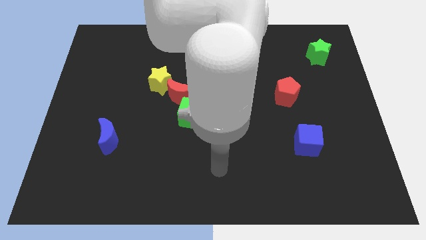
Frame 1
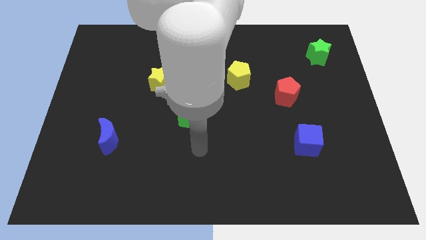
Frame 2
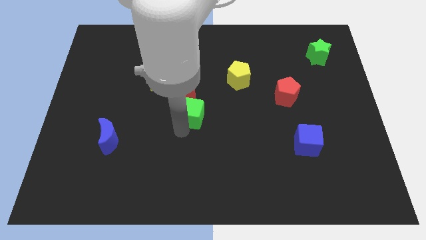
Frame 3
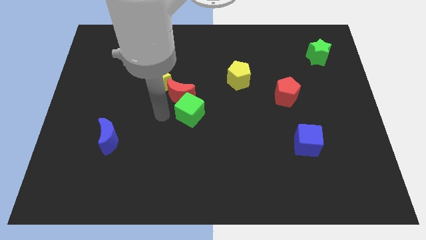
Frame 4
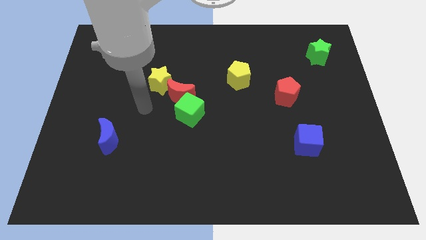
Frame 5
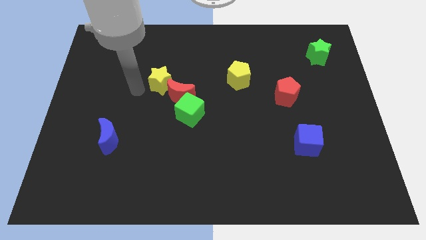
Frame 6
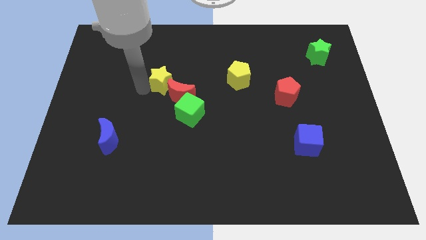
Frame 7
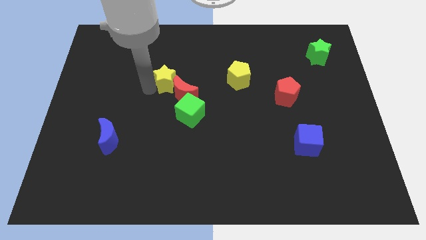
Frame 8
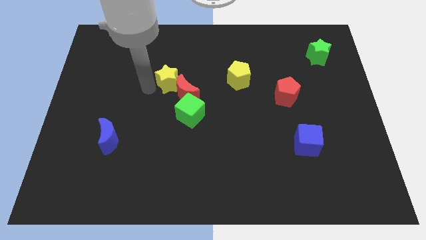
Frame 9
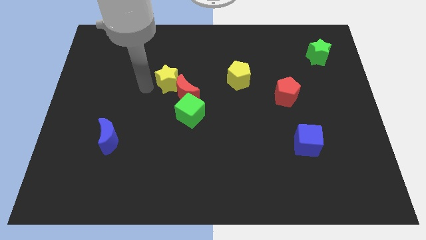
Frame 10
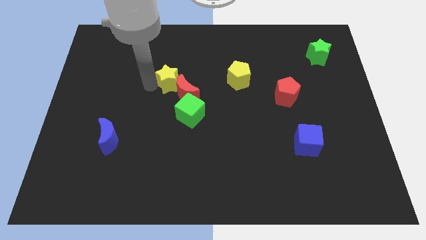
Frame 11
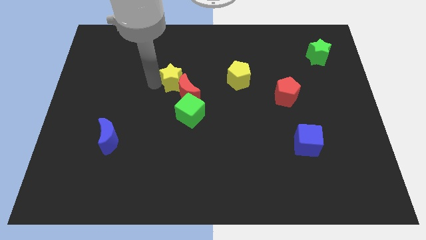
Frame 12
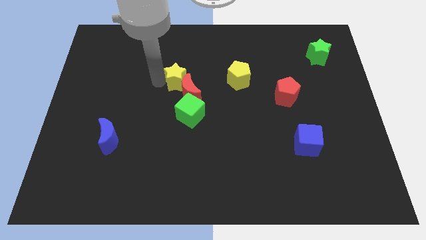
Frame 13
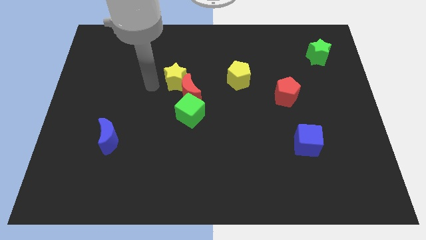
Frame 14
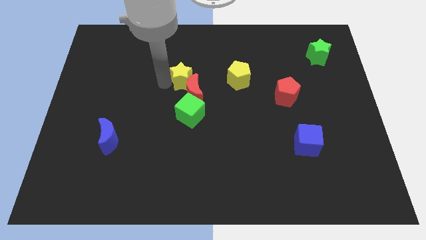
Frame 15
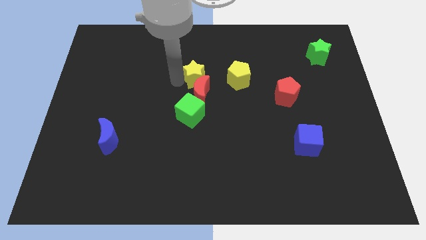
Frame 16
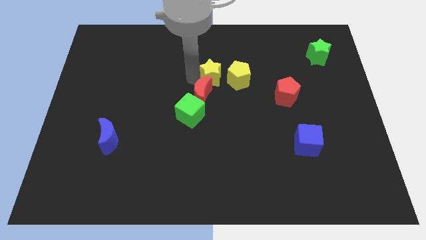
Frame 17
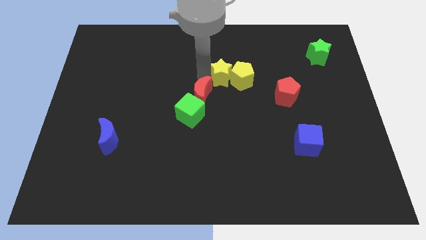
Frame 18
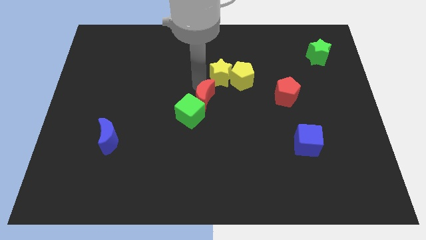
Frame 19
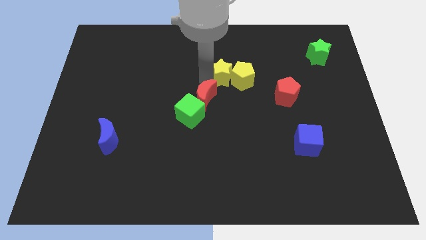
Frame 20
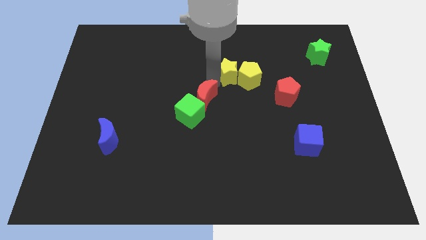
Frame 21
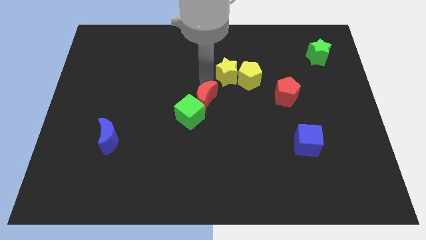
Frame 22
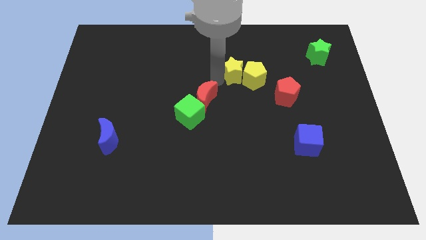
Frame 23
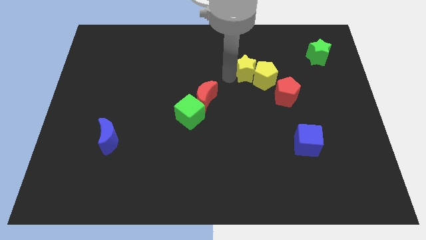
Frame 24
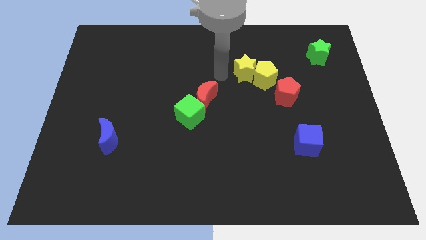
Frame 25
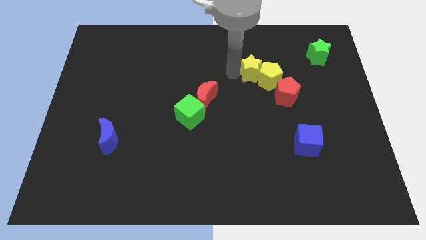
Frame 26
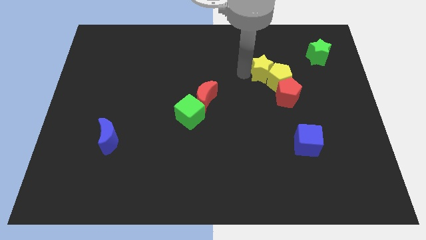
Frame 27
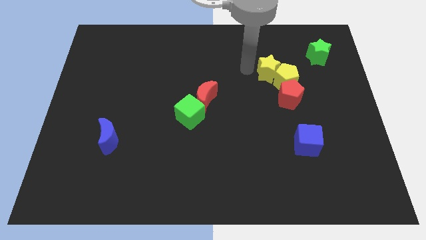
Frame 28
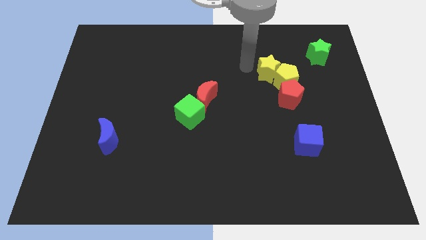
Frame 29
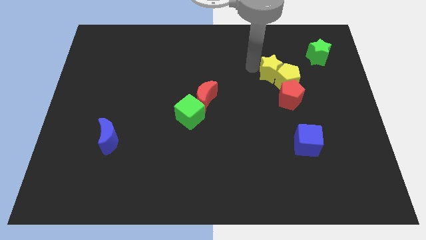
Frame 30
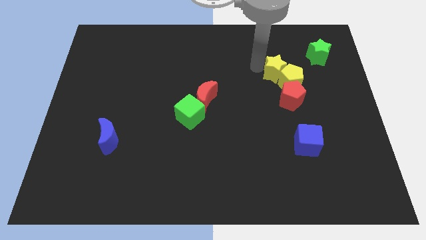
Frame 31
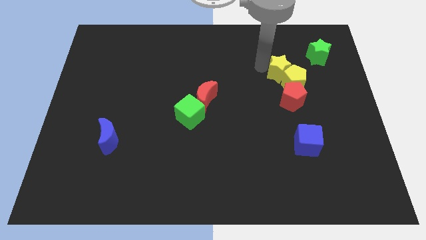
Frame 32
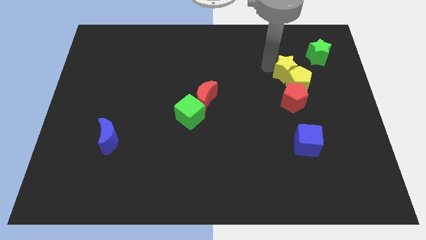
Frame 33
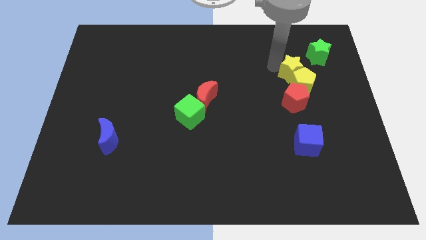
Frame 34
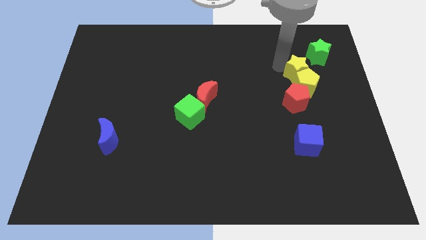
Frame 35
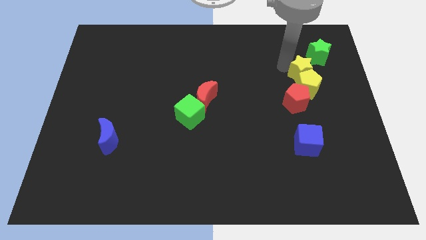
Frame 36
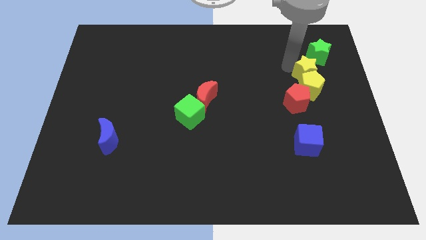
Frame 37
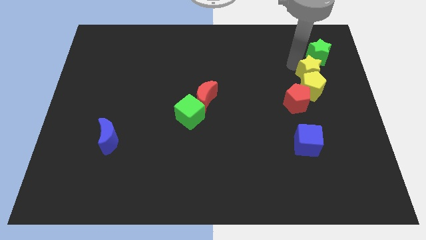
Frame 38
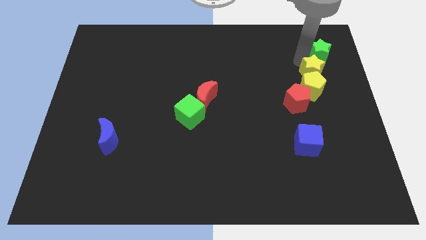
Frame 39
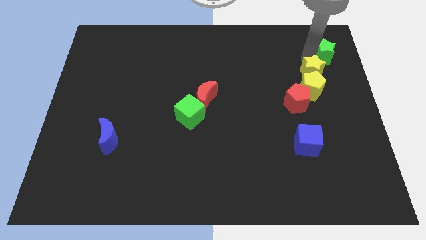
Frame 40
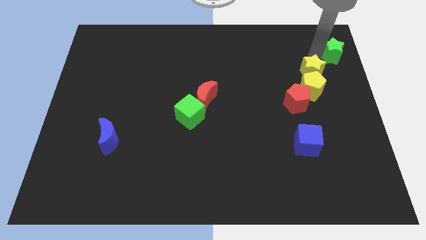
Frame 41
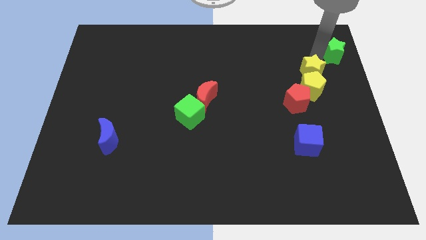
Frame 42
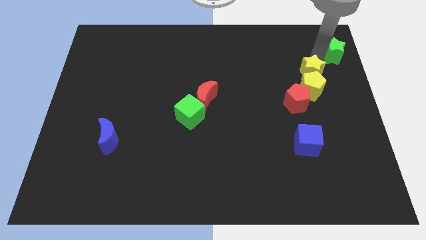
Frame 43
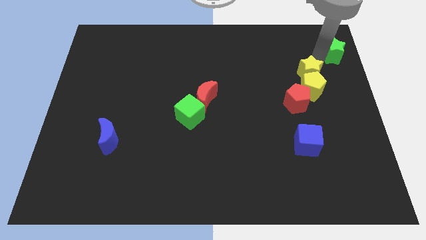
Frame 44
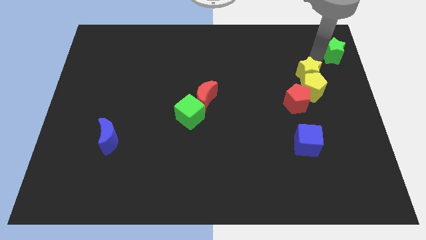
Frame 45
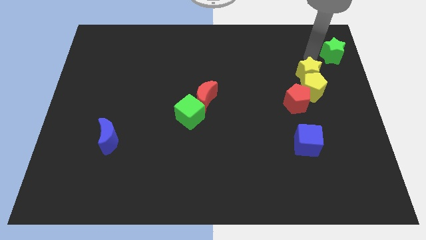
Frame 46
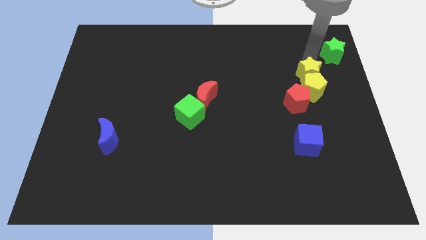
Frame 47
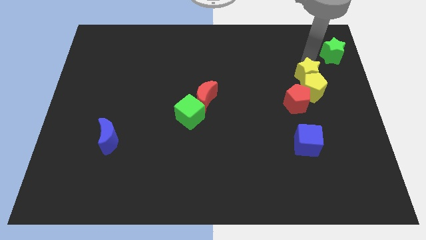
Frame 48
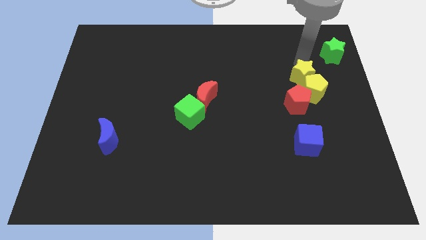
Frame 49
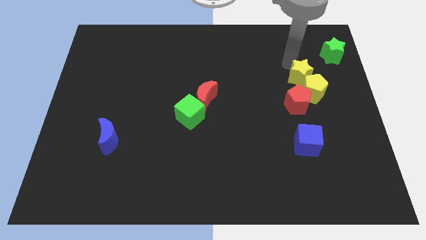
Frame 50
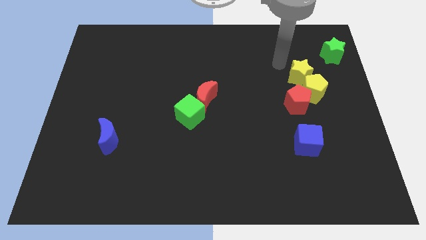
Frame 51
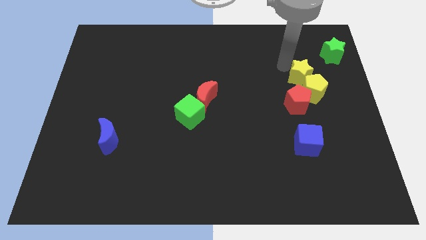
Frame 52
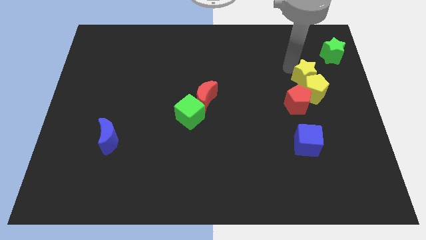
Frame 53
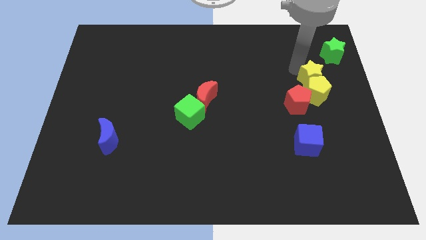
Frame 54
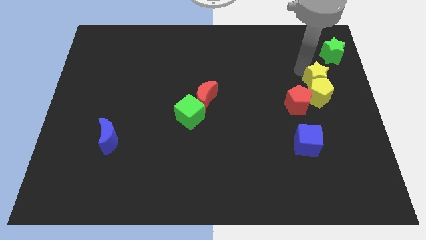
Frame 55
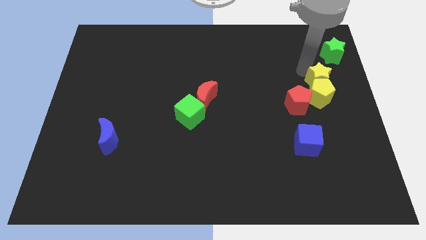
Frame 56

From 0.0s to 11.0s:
move the yellow star to the center right

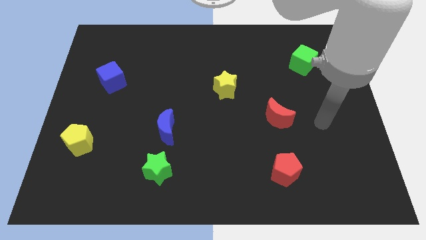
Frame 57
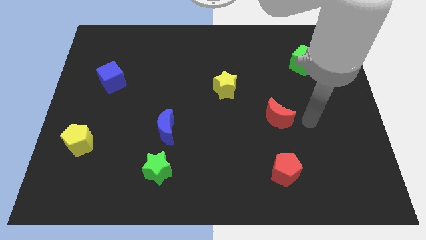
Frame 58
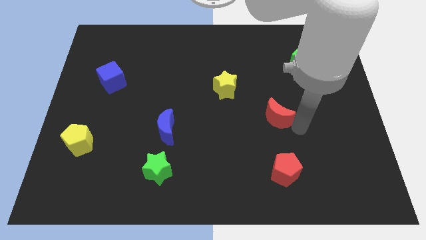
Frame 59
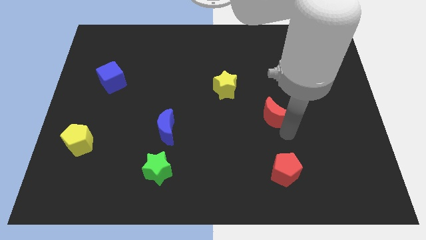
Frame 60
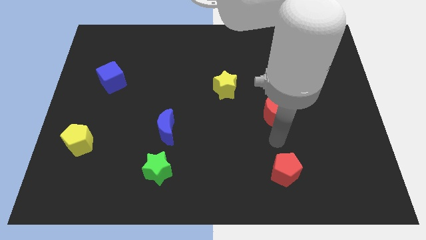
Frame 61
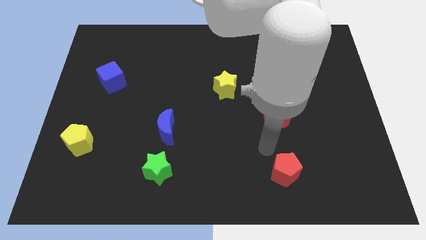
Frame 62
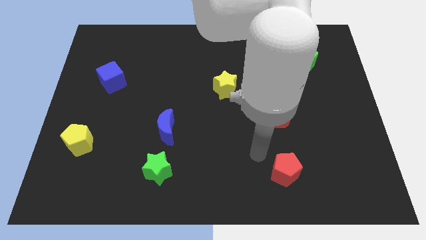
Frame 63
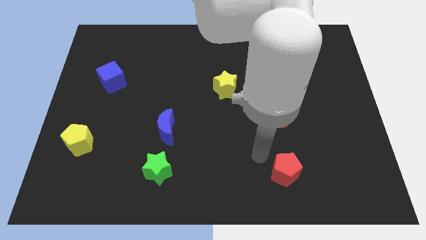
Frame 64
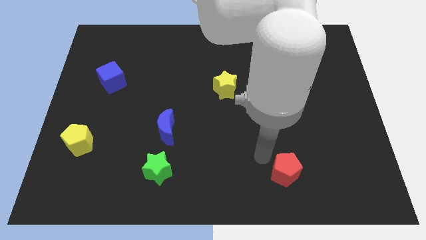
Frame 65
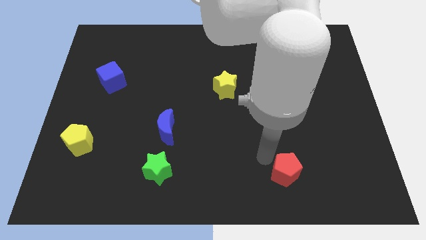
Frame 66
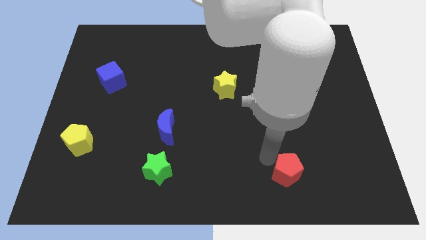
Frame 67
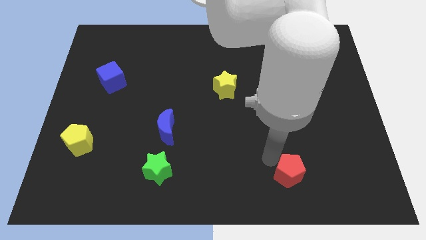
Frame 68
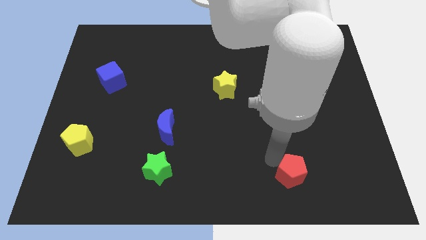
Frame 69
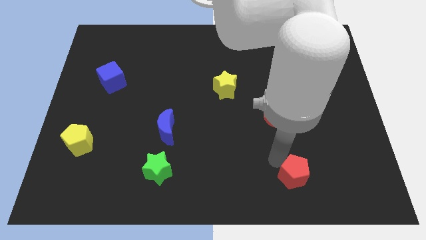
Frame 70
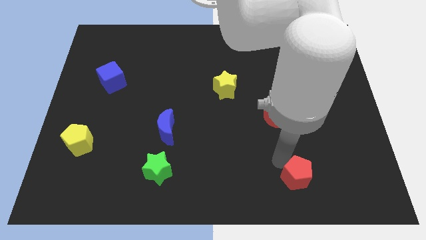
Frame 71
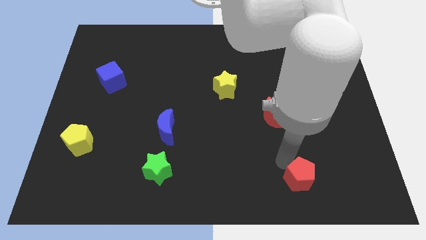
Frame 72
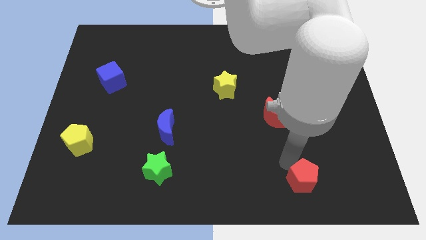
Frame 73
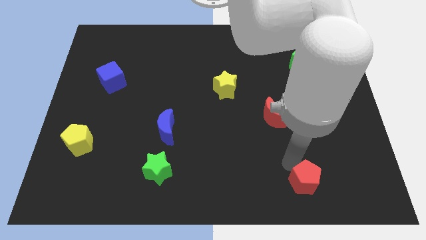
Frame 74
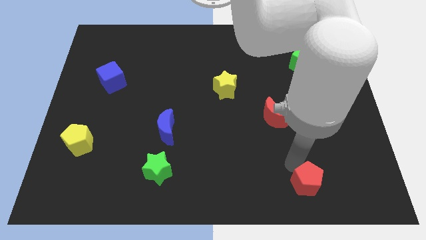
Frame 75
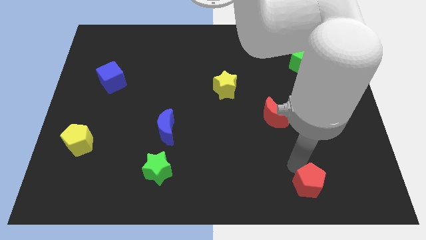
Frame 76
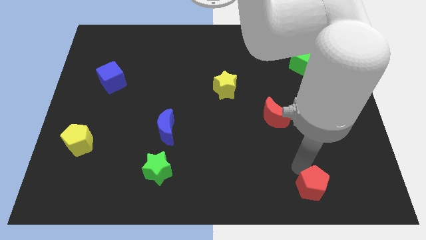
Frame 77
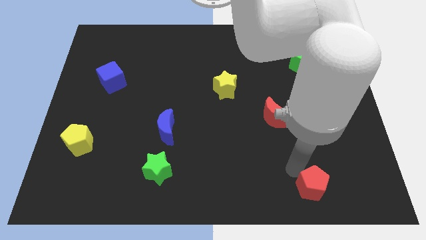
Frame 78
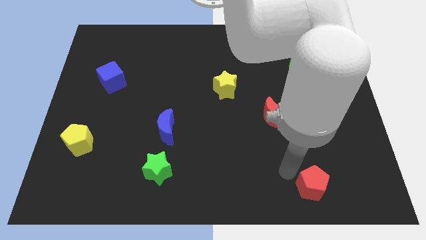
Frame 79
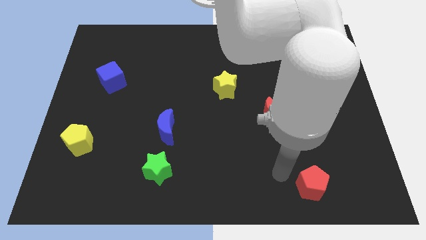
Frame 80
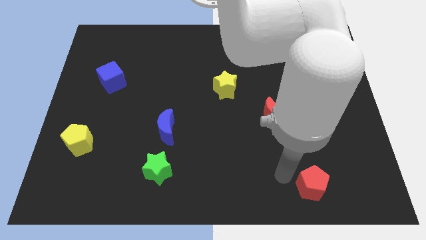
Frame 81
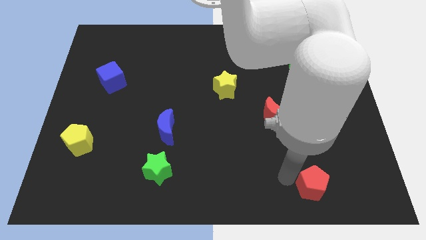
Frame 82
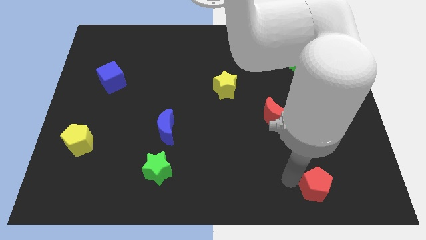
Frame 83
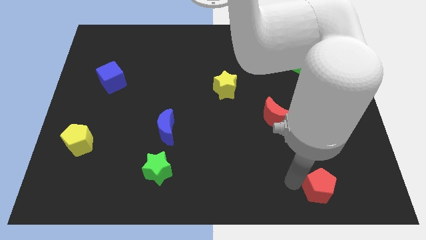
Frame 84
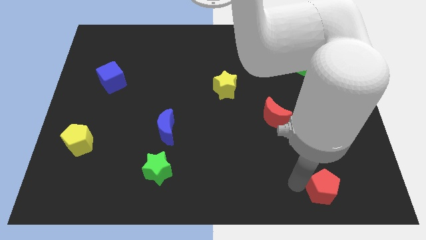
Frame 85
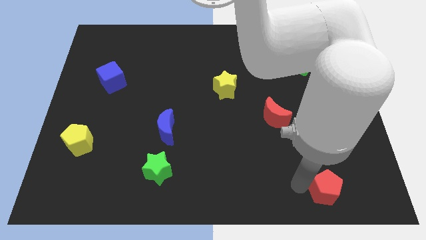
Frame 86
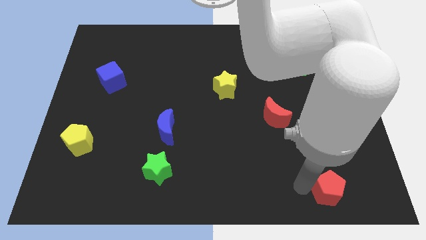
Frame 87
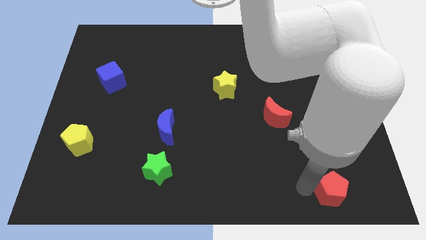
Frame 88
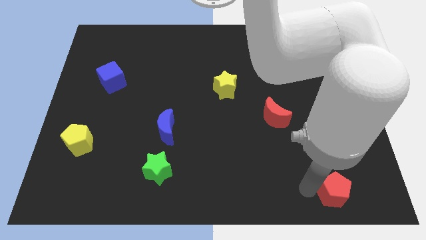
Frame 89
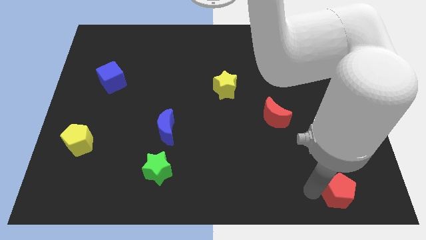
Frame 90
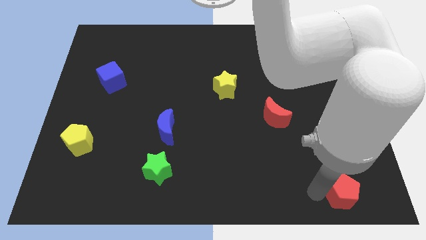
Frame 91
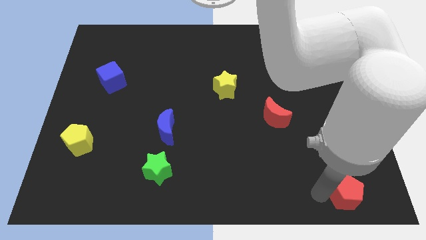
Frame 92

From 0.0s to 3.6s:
slide the red pentagon to the bottom right
